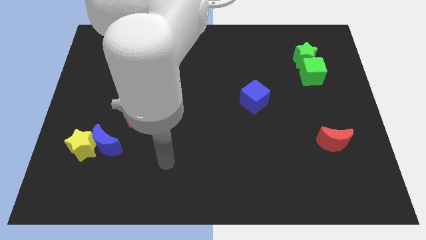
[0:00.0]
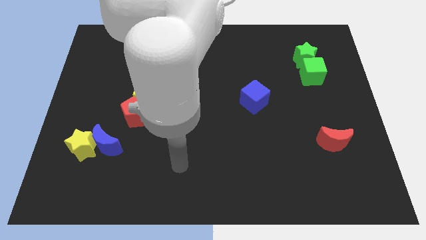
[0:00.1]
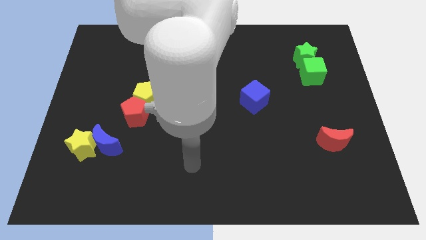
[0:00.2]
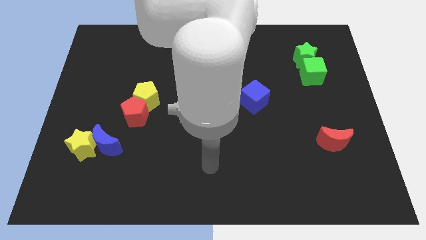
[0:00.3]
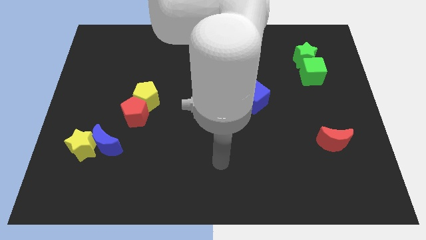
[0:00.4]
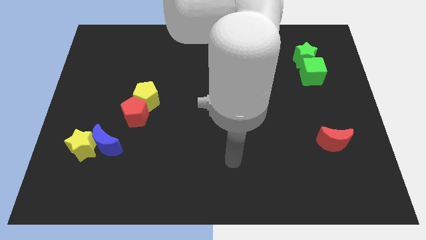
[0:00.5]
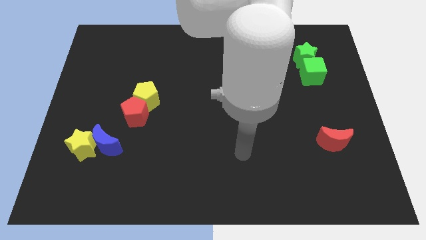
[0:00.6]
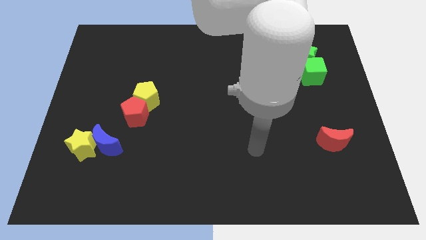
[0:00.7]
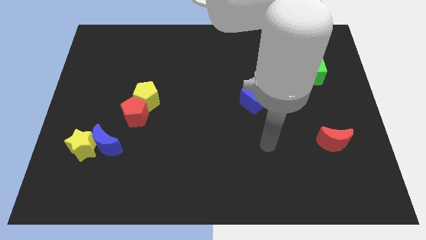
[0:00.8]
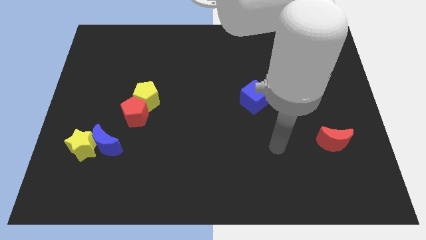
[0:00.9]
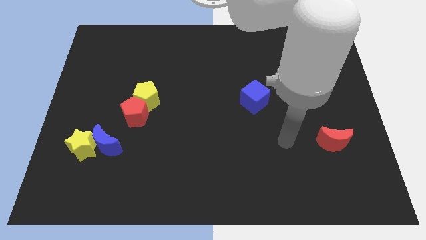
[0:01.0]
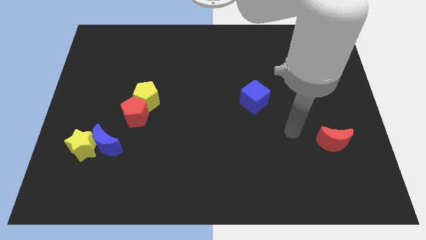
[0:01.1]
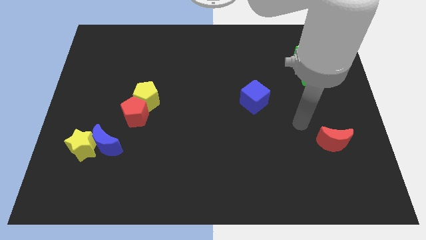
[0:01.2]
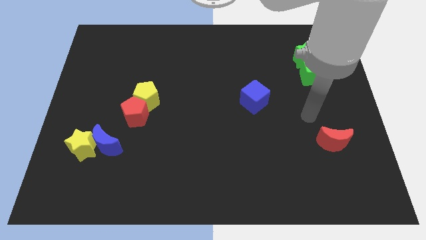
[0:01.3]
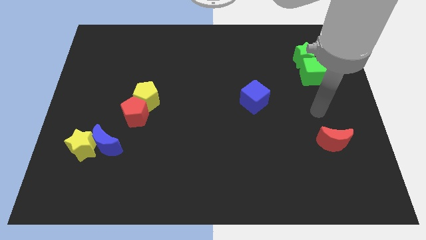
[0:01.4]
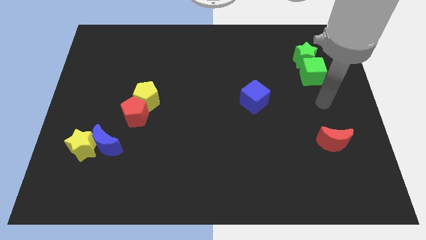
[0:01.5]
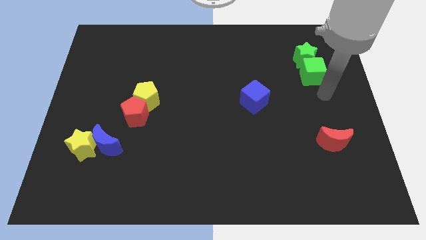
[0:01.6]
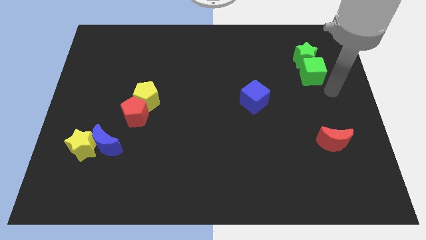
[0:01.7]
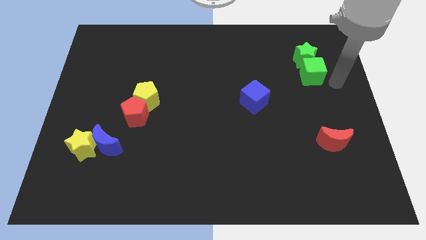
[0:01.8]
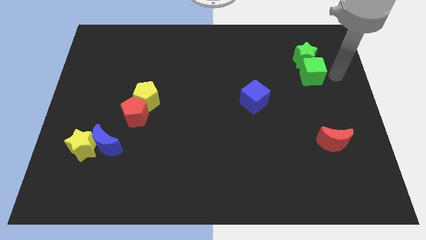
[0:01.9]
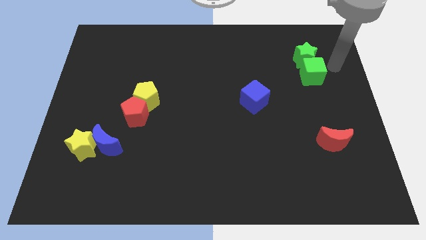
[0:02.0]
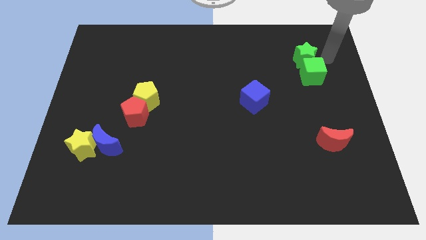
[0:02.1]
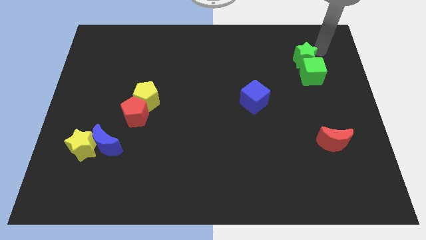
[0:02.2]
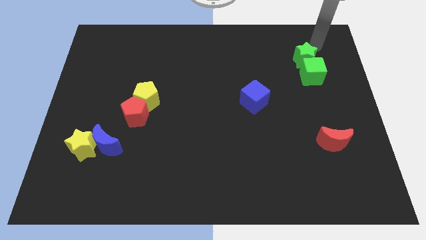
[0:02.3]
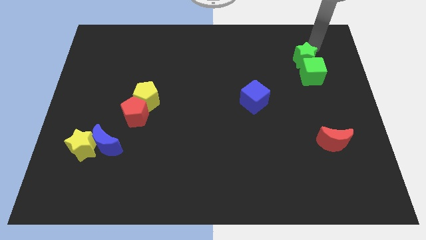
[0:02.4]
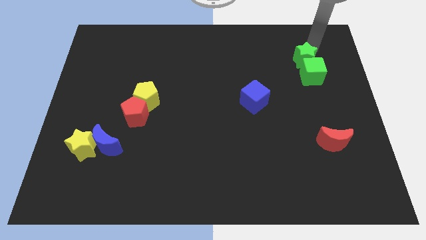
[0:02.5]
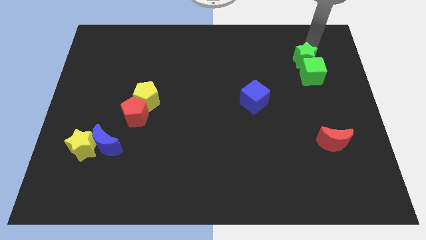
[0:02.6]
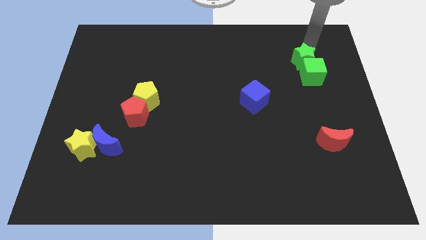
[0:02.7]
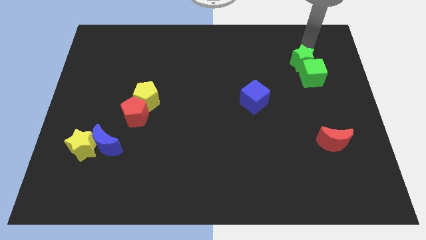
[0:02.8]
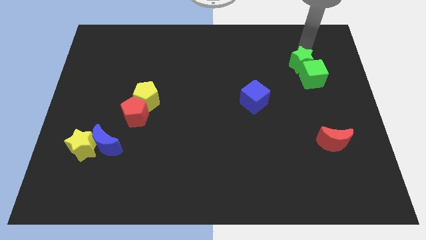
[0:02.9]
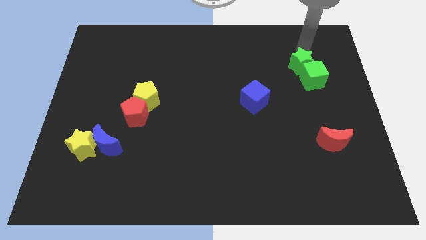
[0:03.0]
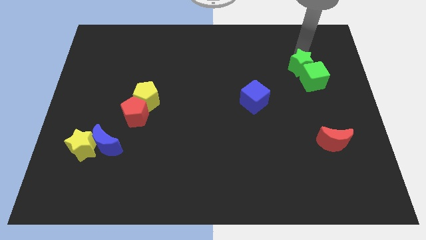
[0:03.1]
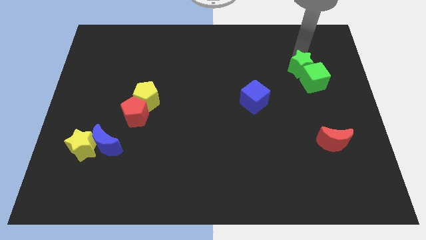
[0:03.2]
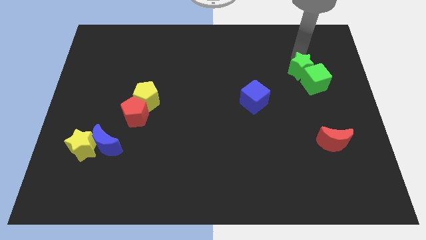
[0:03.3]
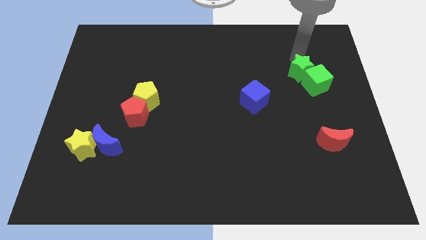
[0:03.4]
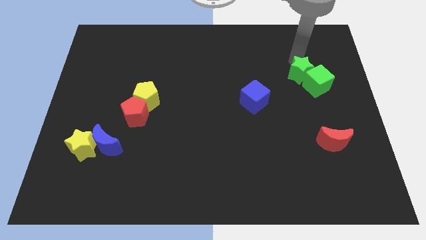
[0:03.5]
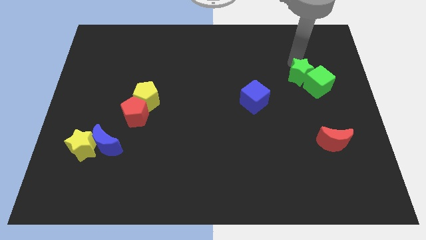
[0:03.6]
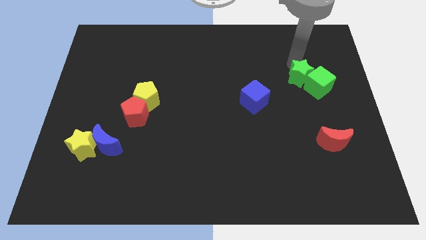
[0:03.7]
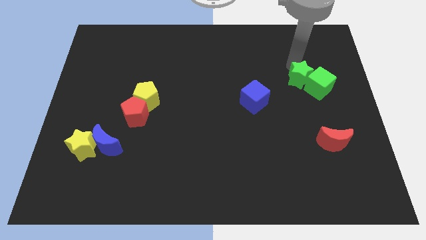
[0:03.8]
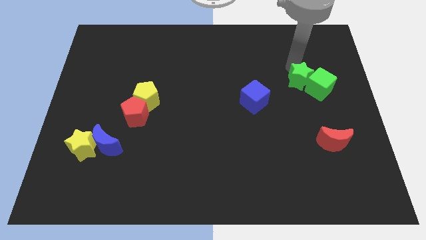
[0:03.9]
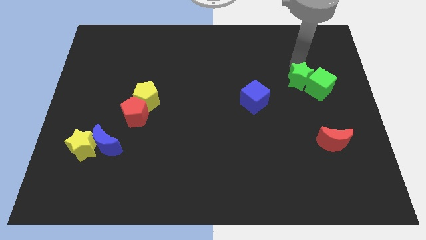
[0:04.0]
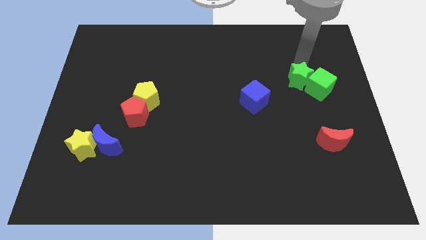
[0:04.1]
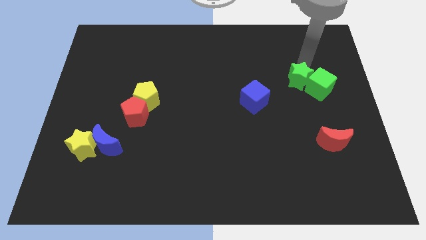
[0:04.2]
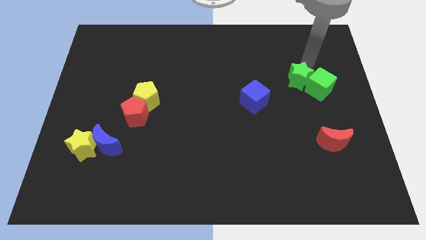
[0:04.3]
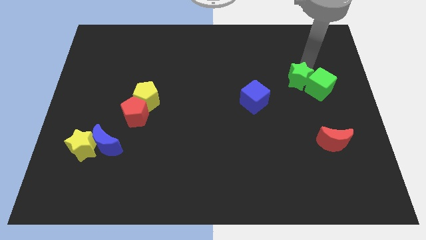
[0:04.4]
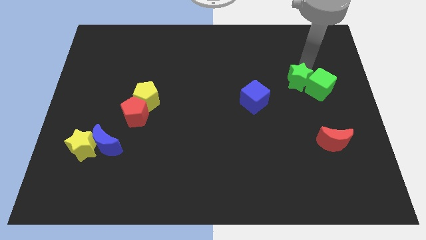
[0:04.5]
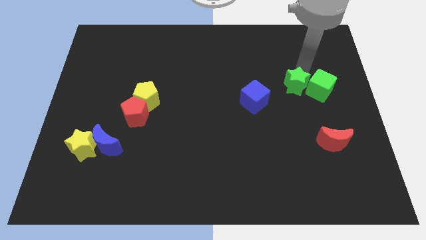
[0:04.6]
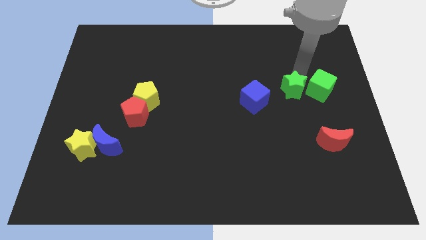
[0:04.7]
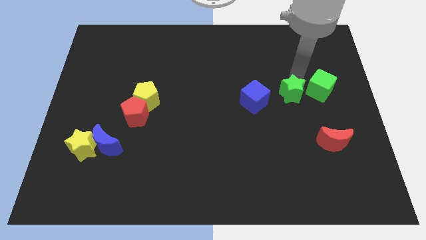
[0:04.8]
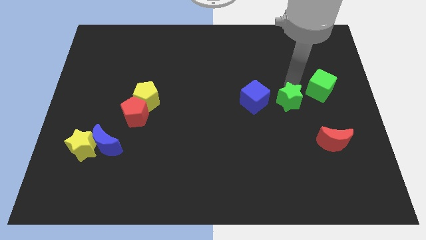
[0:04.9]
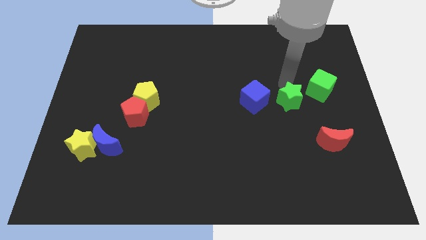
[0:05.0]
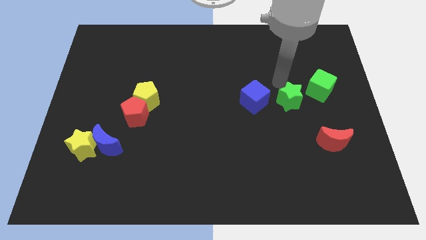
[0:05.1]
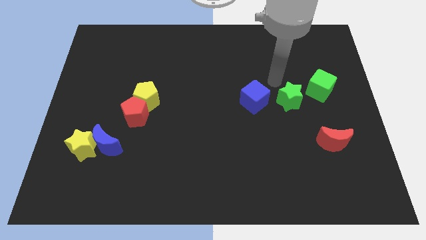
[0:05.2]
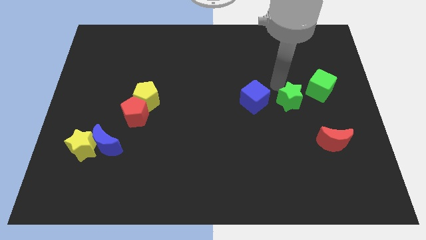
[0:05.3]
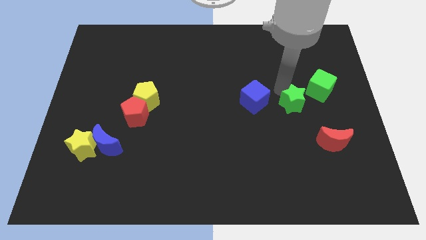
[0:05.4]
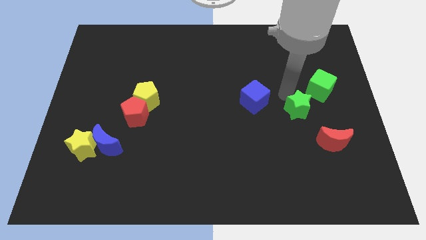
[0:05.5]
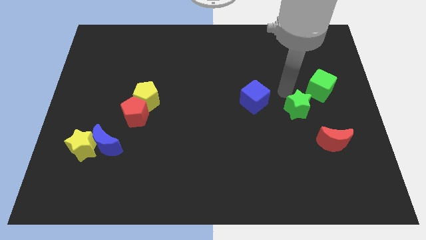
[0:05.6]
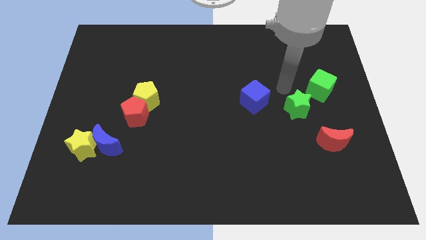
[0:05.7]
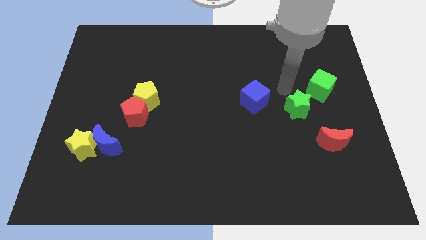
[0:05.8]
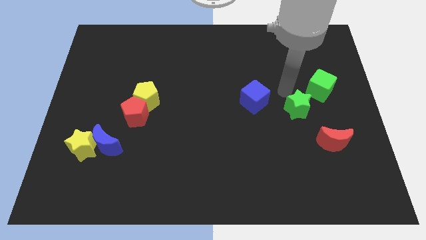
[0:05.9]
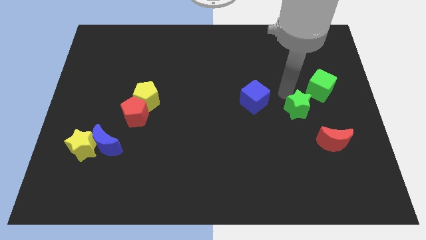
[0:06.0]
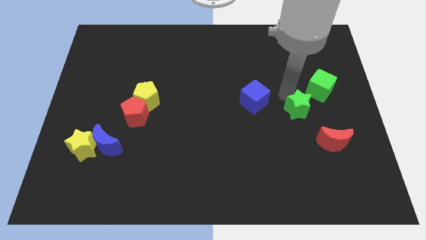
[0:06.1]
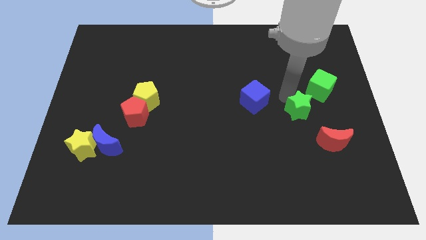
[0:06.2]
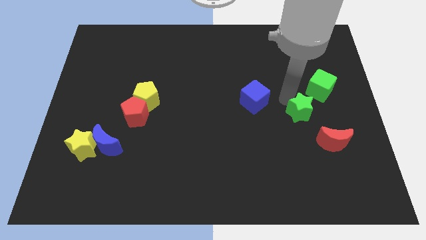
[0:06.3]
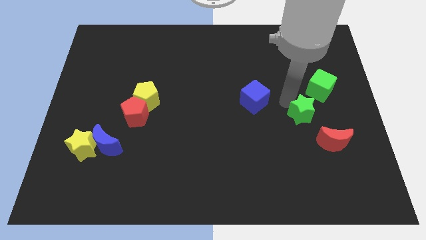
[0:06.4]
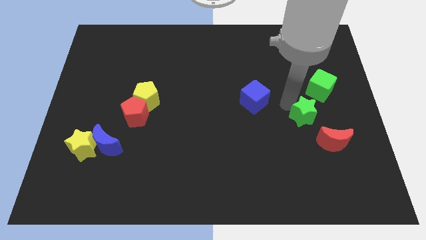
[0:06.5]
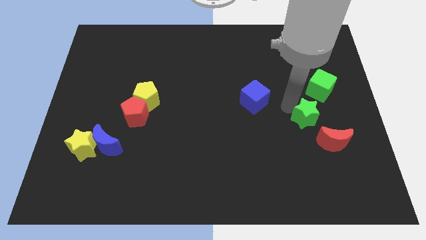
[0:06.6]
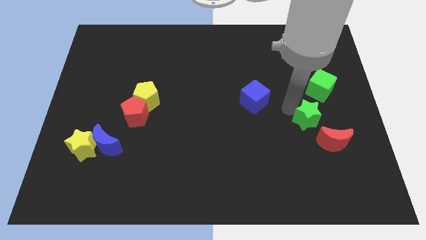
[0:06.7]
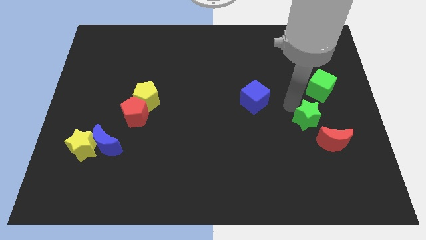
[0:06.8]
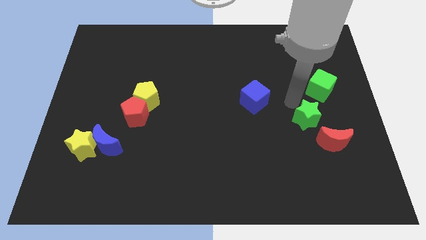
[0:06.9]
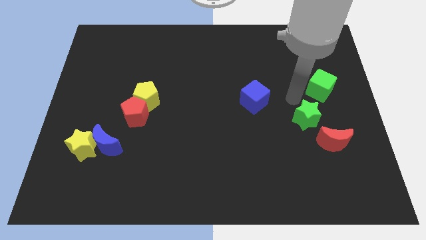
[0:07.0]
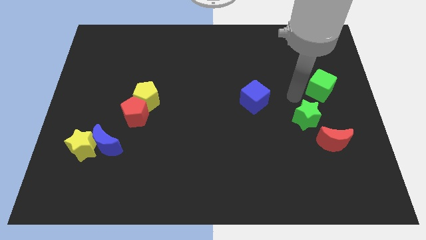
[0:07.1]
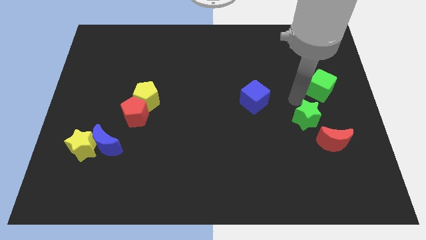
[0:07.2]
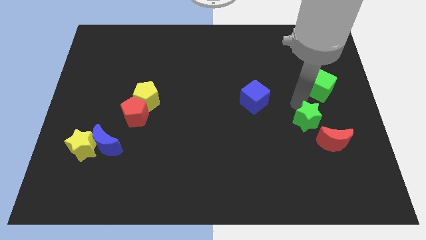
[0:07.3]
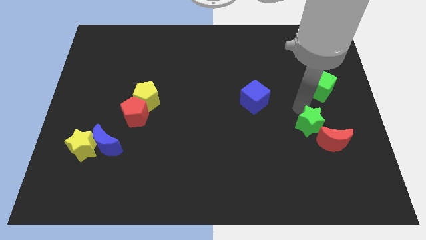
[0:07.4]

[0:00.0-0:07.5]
push the green star downwards

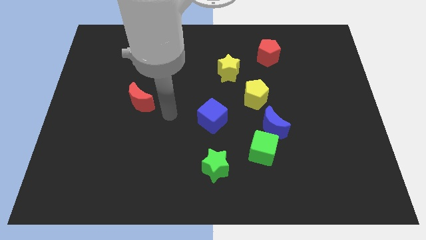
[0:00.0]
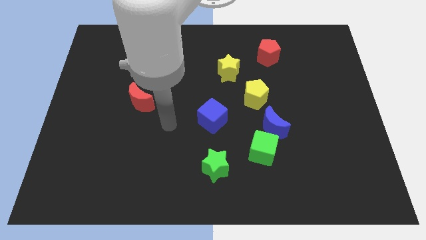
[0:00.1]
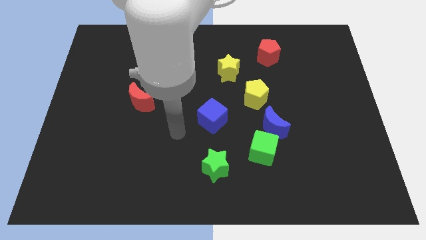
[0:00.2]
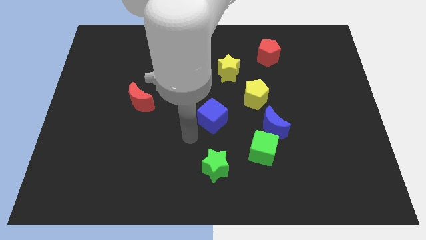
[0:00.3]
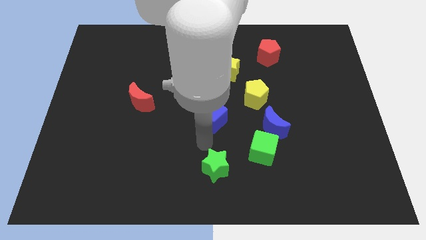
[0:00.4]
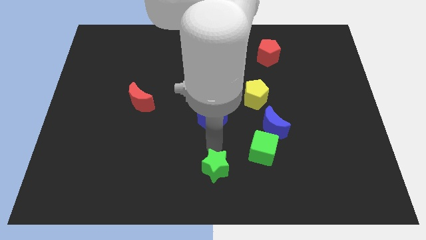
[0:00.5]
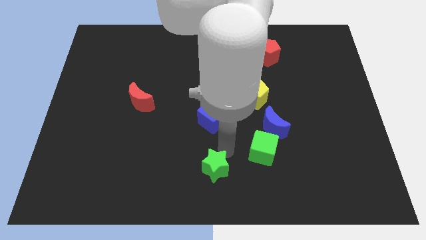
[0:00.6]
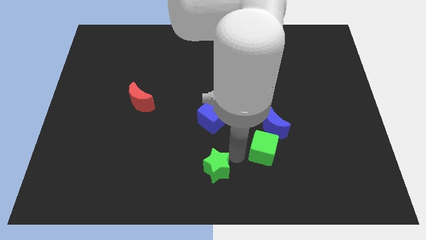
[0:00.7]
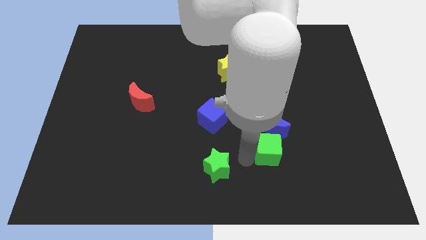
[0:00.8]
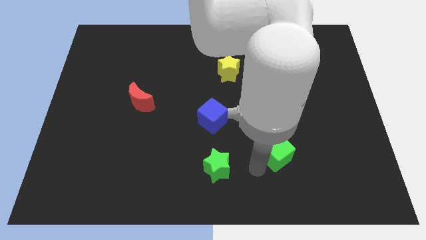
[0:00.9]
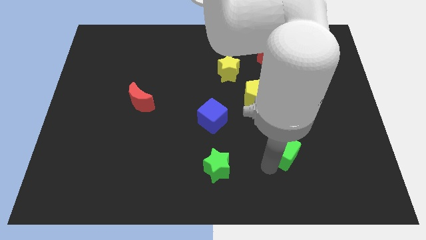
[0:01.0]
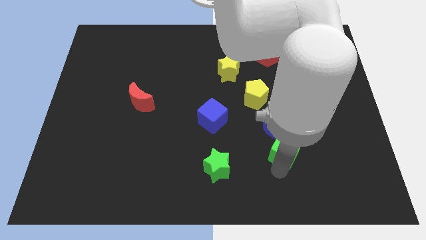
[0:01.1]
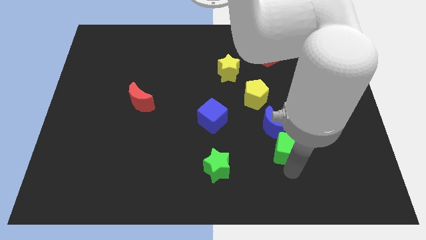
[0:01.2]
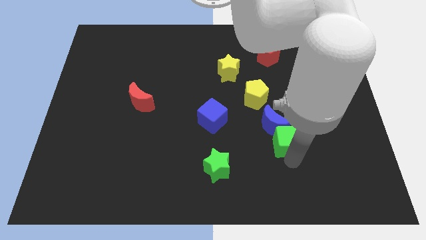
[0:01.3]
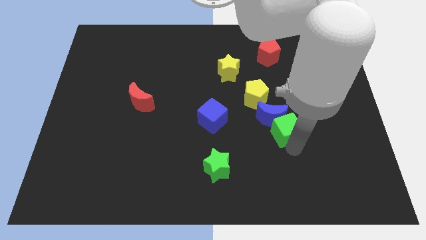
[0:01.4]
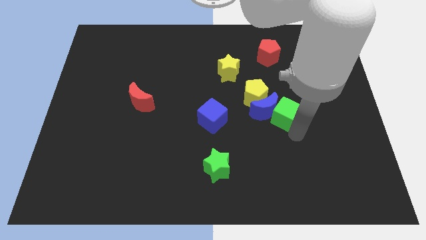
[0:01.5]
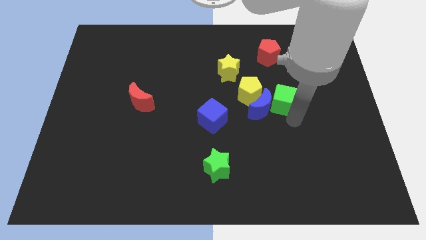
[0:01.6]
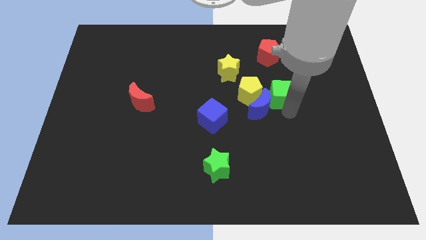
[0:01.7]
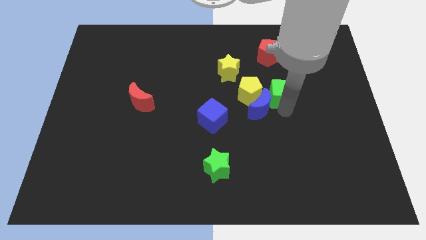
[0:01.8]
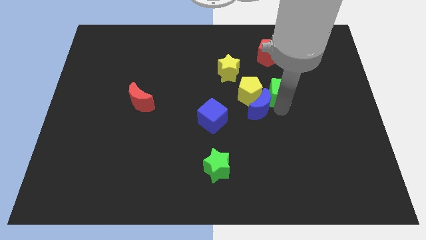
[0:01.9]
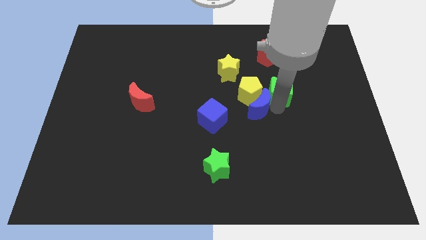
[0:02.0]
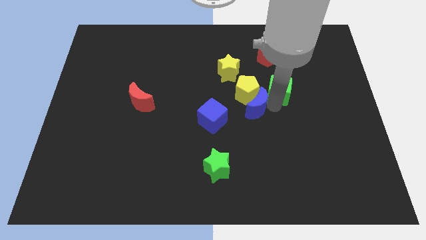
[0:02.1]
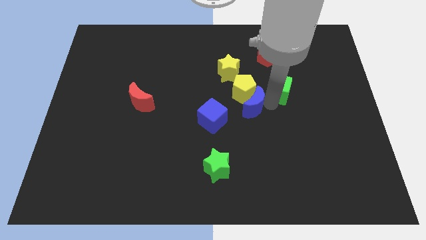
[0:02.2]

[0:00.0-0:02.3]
slide the blue moon upwards and left a little
